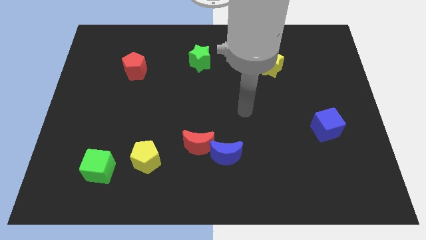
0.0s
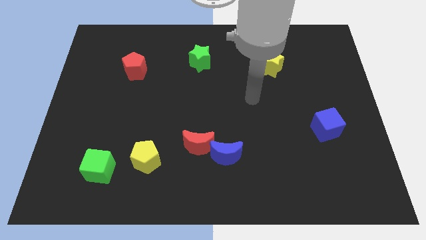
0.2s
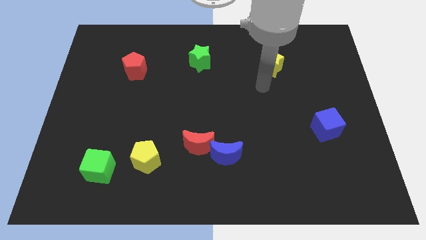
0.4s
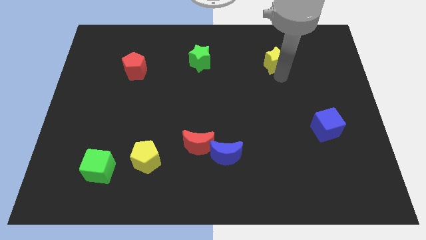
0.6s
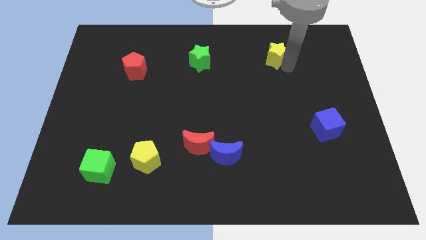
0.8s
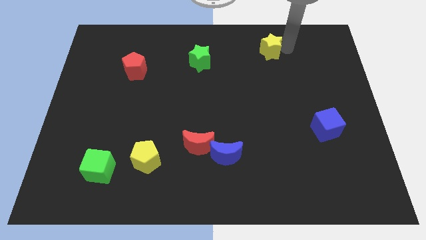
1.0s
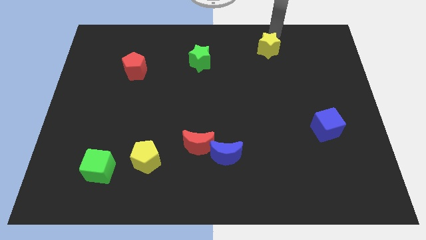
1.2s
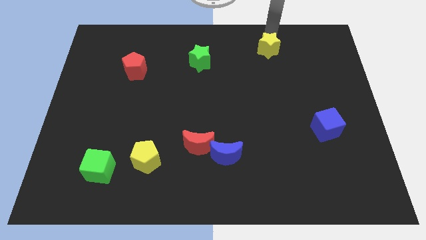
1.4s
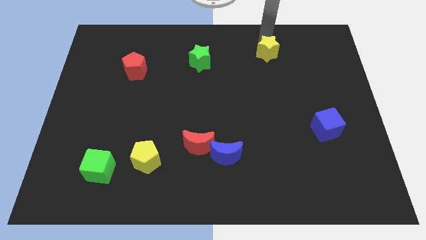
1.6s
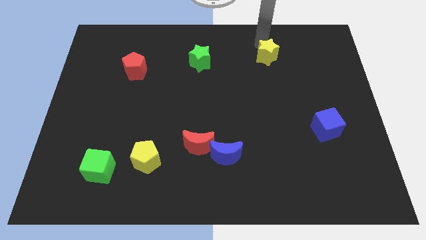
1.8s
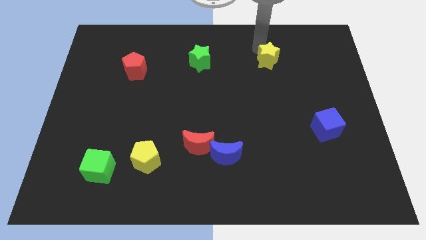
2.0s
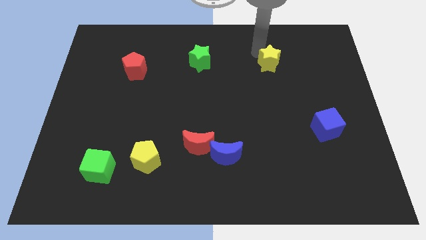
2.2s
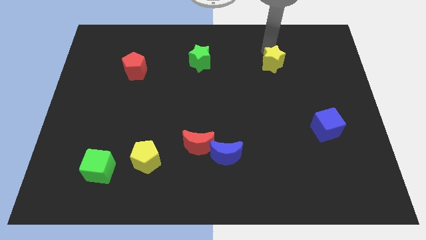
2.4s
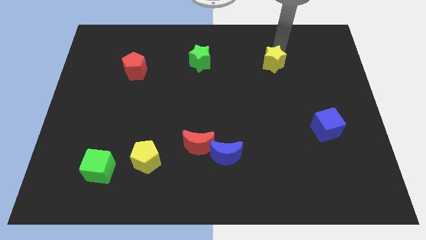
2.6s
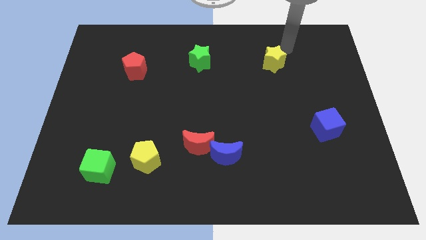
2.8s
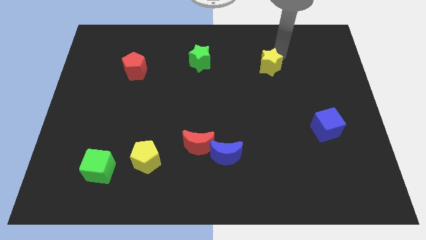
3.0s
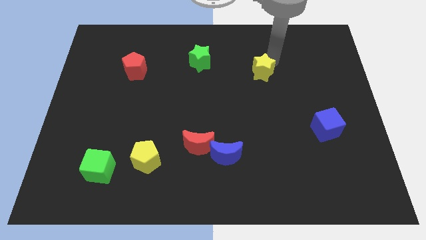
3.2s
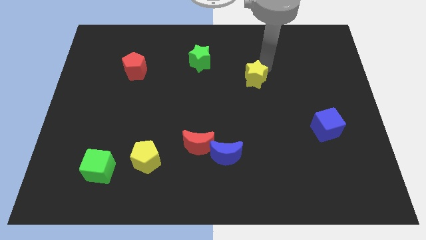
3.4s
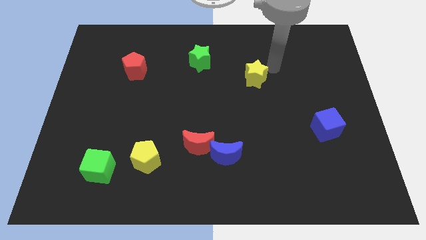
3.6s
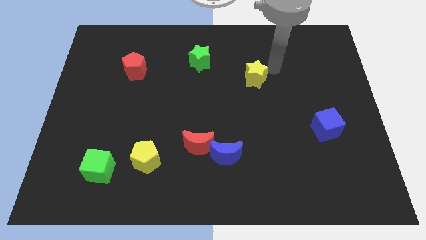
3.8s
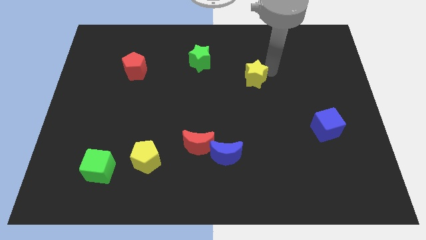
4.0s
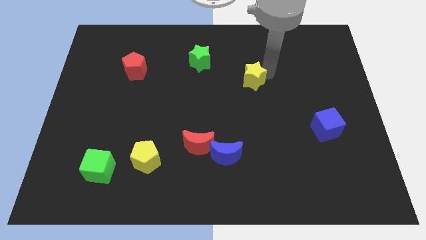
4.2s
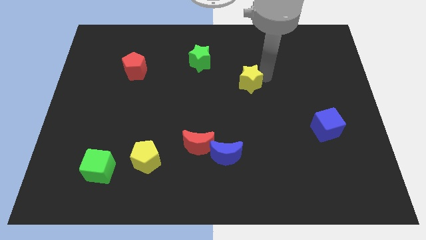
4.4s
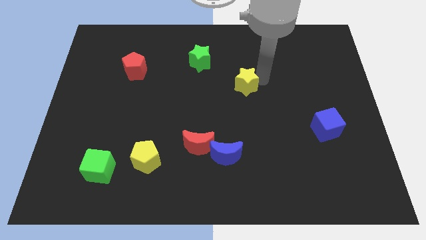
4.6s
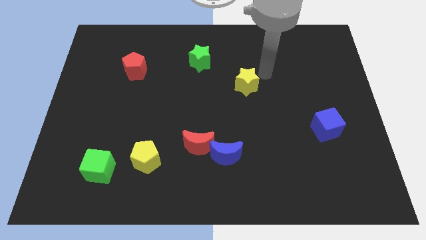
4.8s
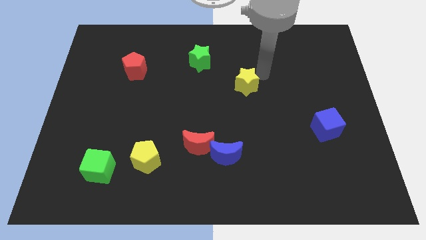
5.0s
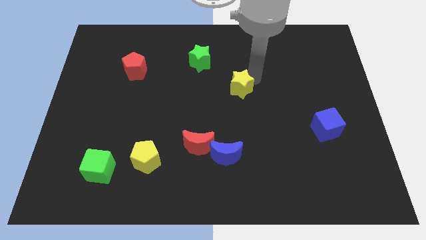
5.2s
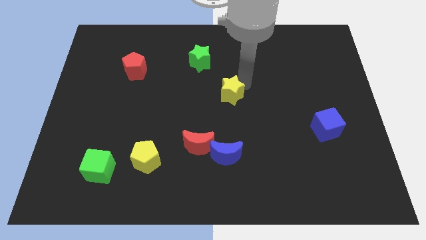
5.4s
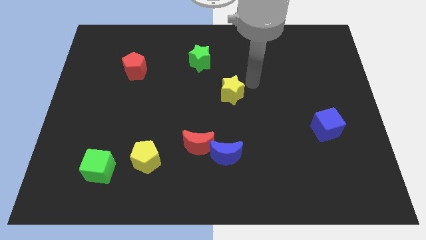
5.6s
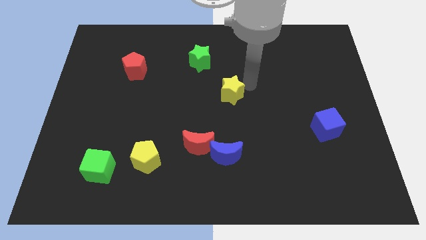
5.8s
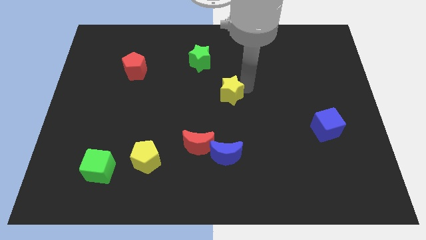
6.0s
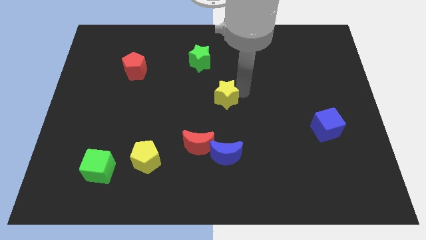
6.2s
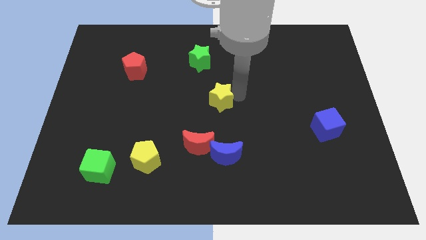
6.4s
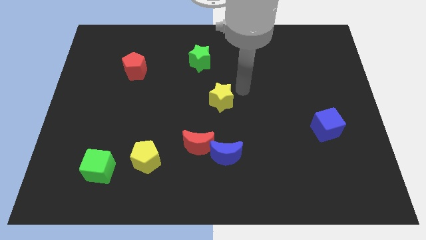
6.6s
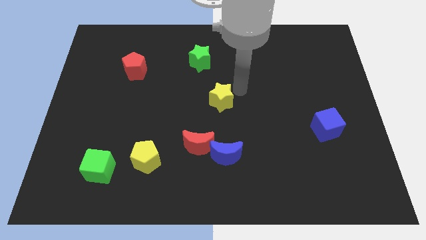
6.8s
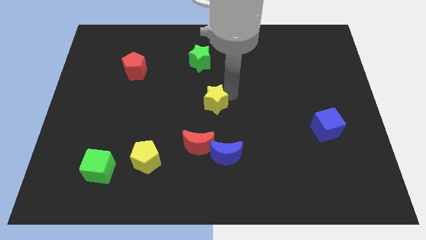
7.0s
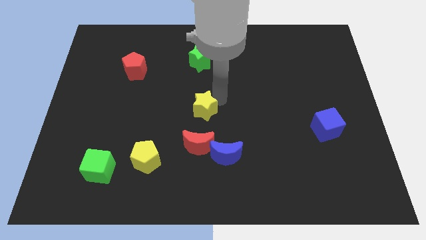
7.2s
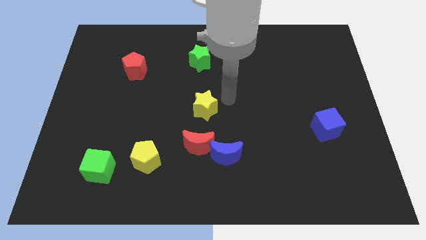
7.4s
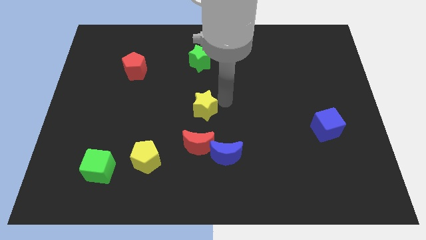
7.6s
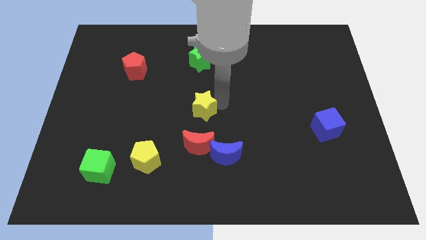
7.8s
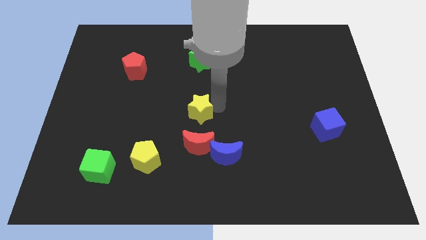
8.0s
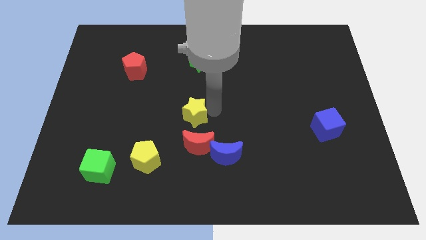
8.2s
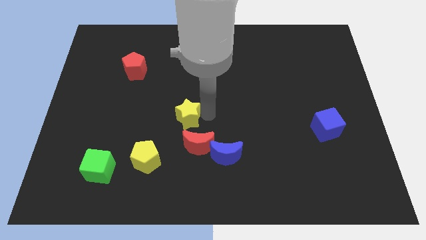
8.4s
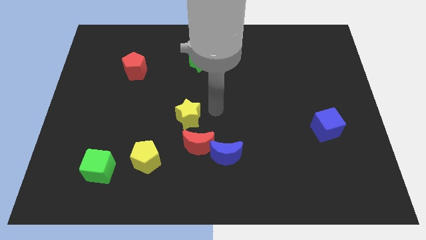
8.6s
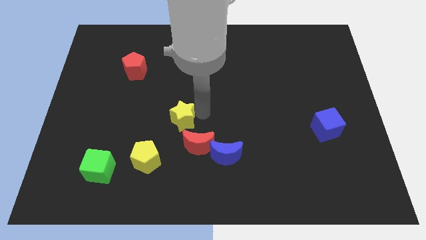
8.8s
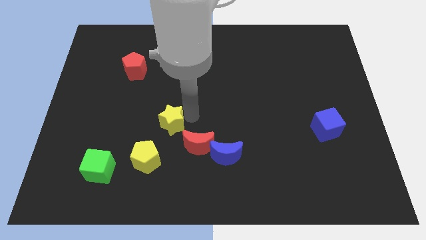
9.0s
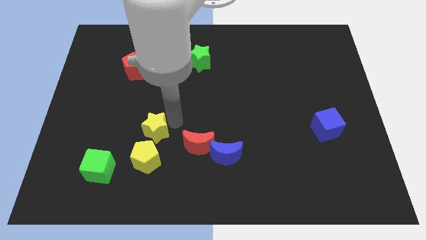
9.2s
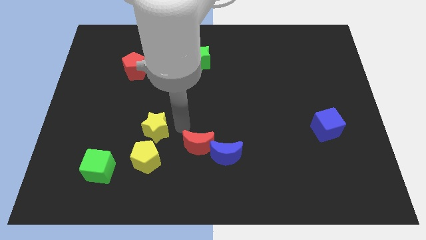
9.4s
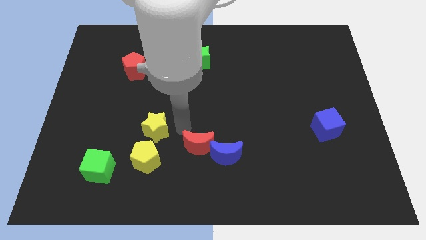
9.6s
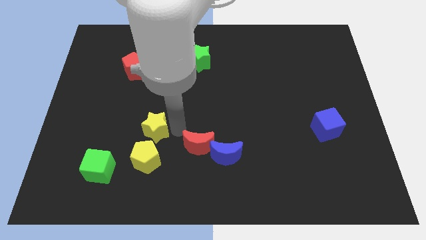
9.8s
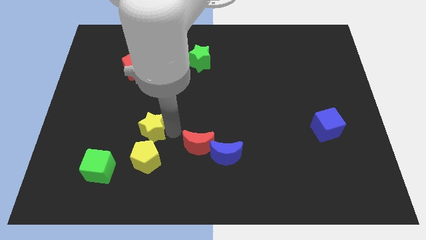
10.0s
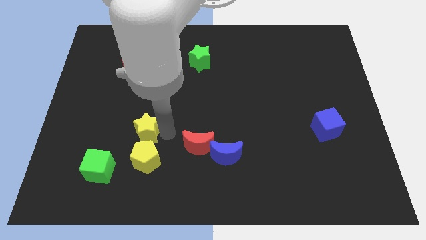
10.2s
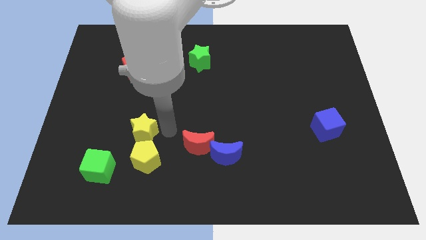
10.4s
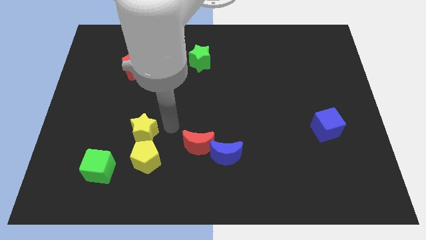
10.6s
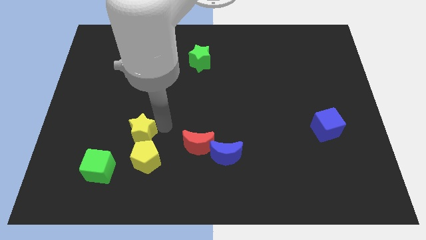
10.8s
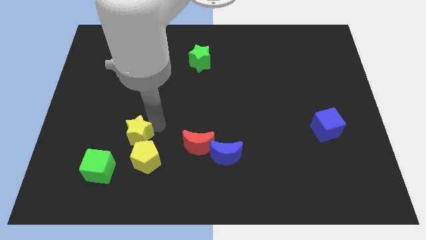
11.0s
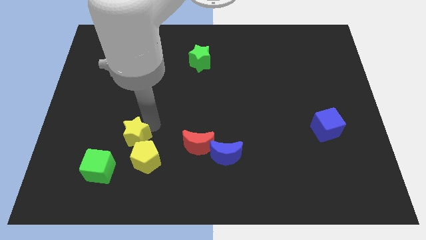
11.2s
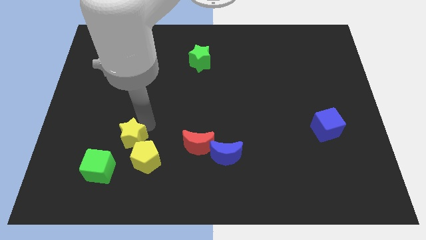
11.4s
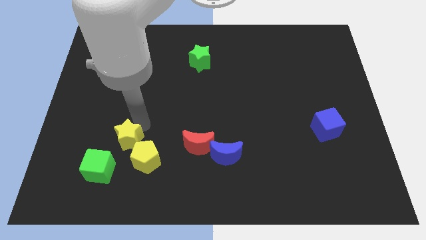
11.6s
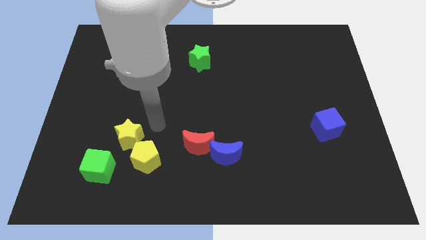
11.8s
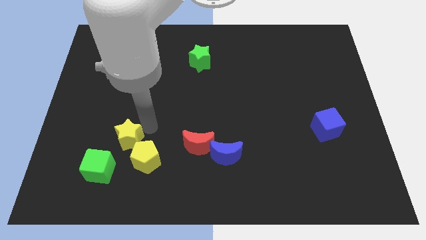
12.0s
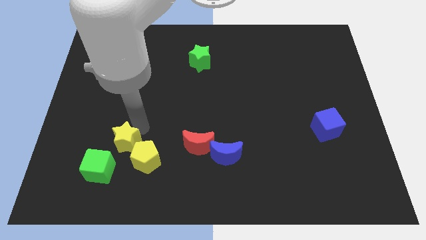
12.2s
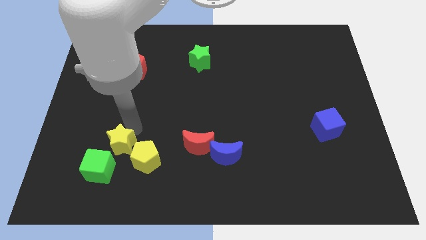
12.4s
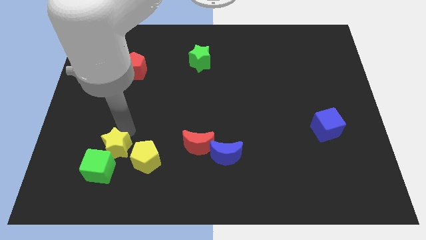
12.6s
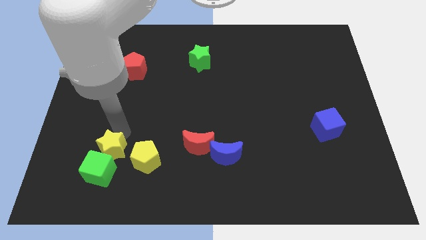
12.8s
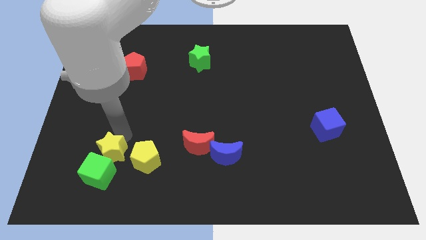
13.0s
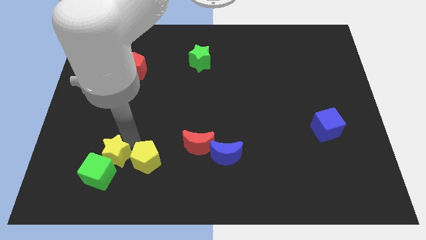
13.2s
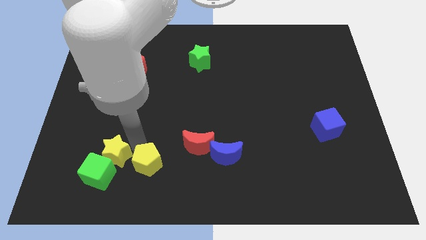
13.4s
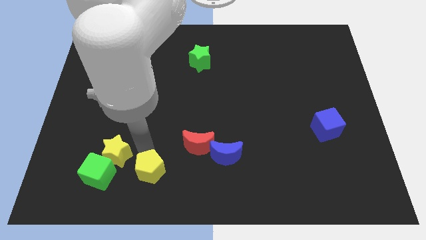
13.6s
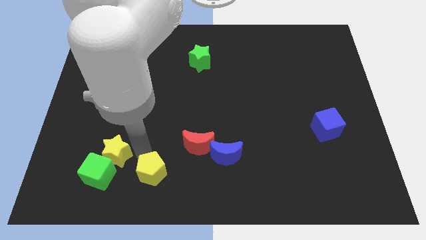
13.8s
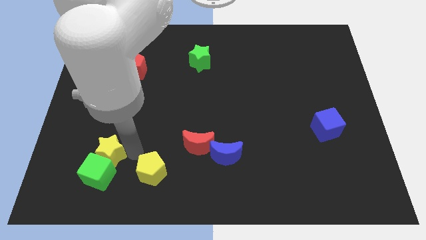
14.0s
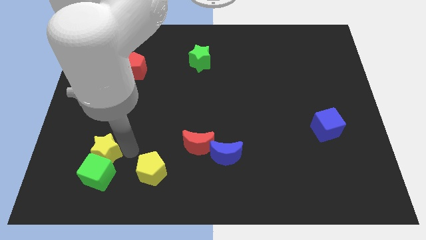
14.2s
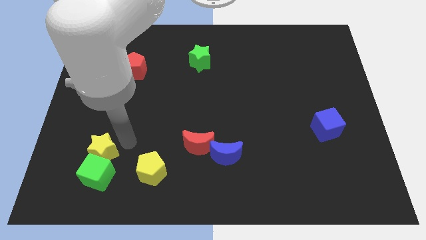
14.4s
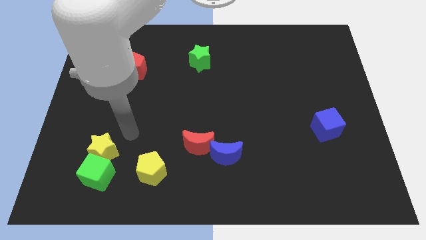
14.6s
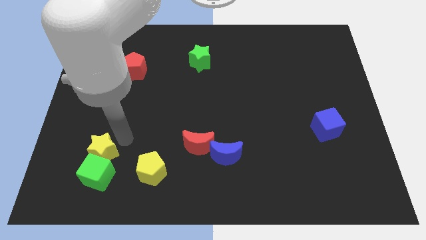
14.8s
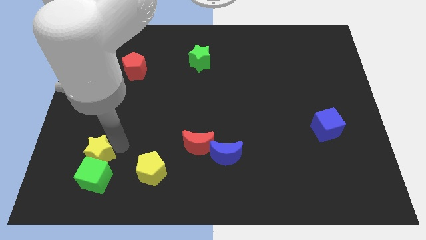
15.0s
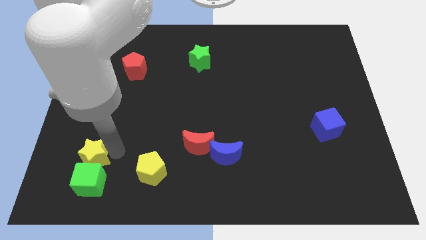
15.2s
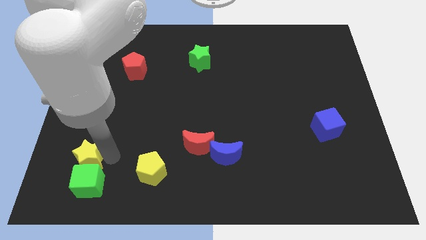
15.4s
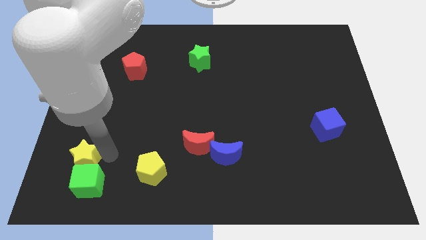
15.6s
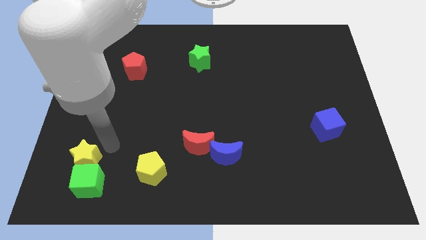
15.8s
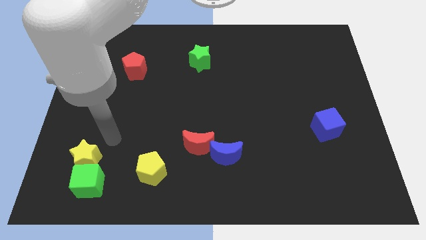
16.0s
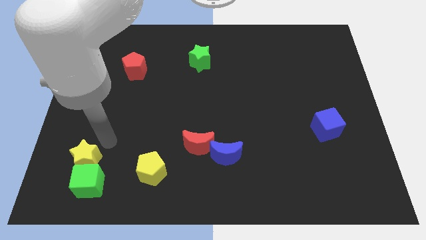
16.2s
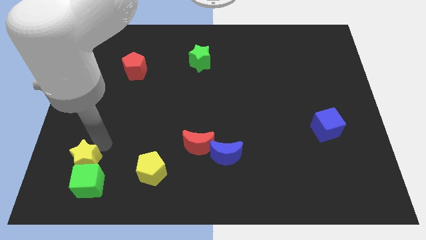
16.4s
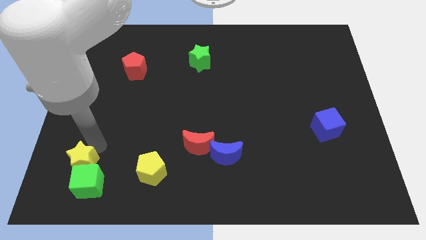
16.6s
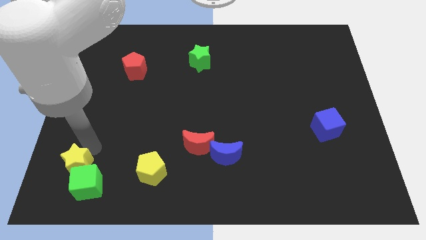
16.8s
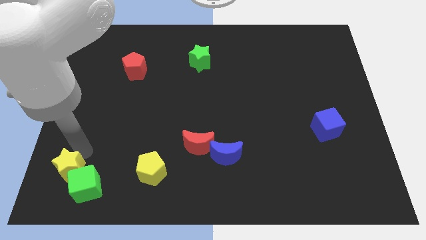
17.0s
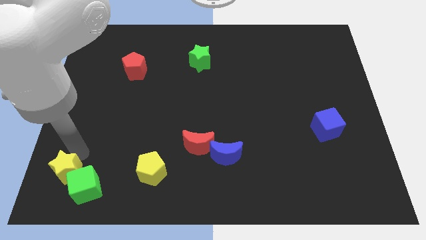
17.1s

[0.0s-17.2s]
move the yellow star to the bottom left of the board
